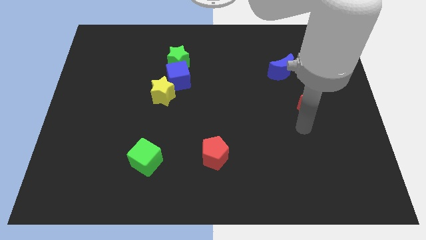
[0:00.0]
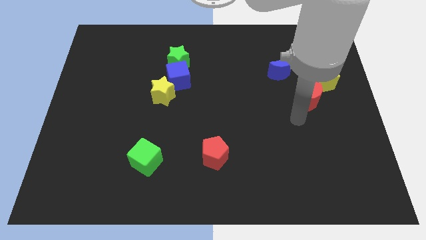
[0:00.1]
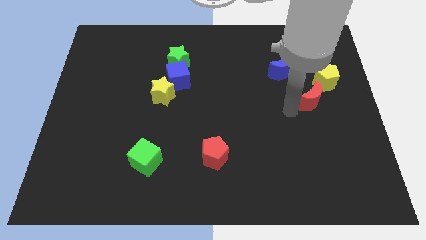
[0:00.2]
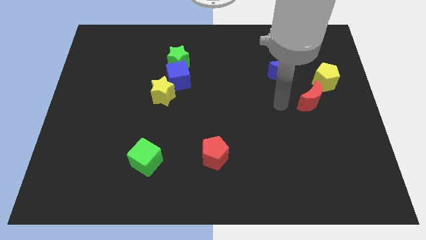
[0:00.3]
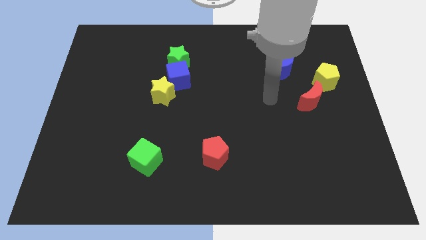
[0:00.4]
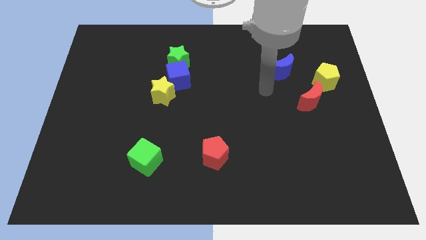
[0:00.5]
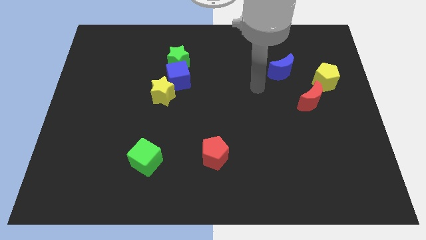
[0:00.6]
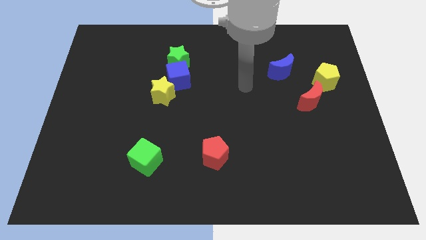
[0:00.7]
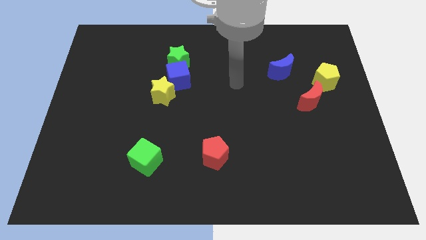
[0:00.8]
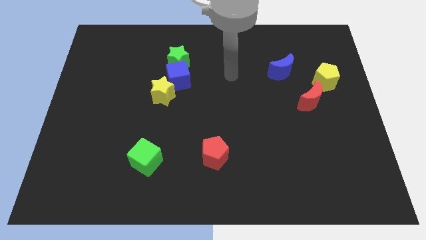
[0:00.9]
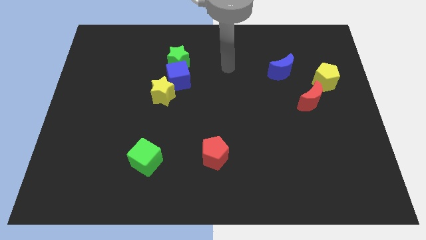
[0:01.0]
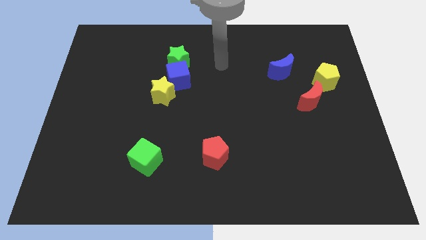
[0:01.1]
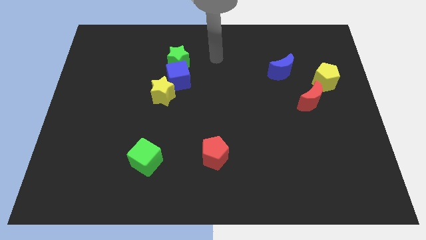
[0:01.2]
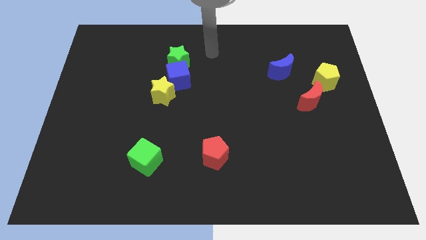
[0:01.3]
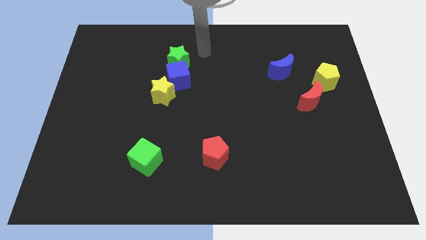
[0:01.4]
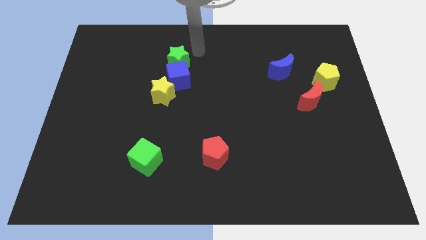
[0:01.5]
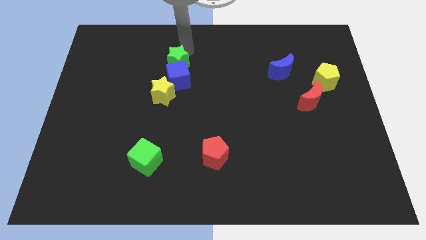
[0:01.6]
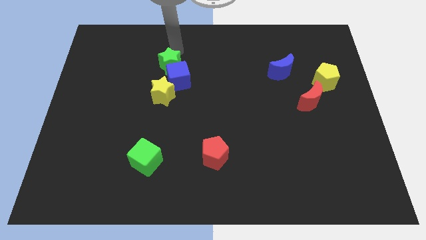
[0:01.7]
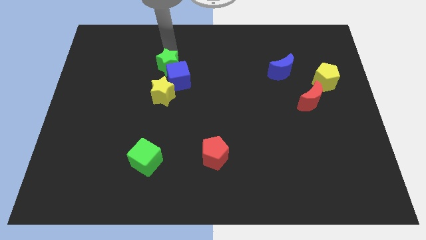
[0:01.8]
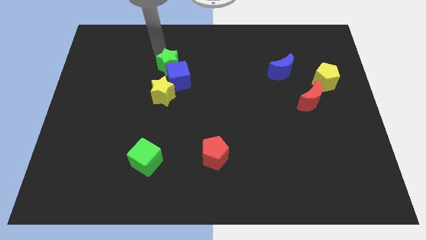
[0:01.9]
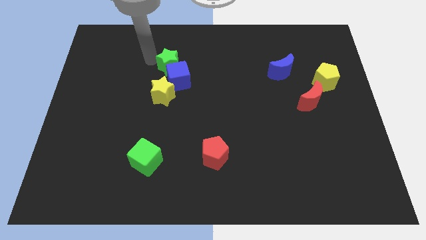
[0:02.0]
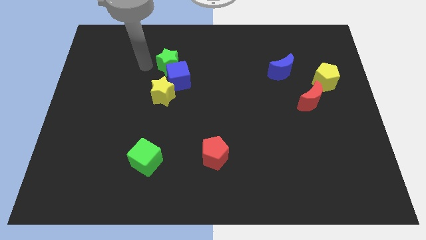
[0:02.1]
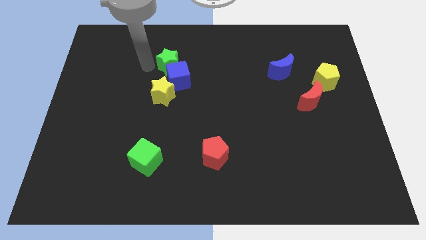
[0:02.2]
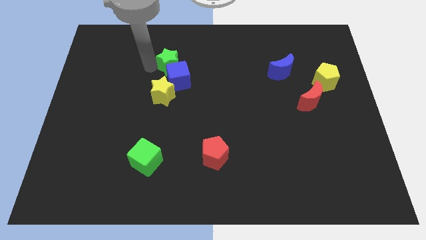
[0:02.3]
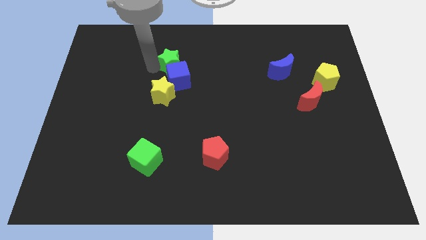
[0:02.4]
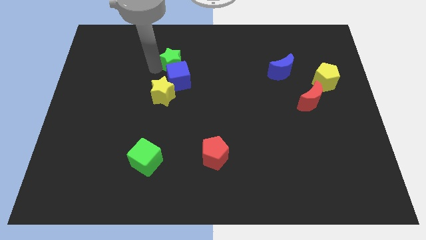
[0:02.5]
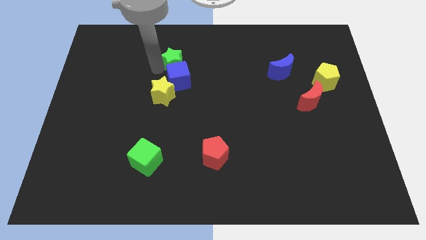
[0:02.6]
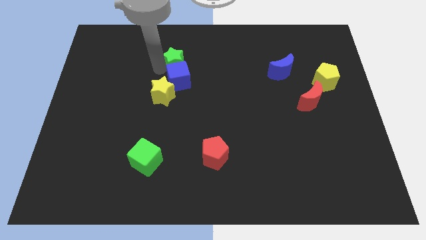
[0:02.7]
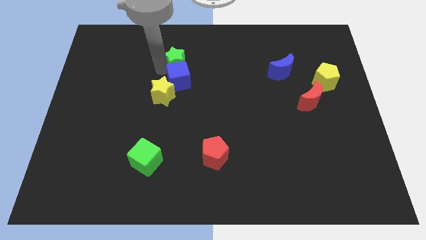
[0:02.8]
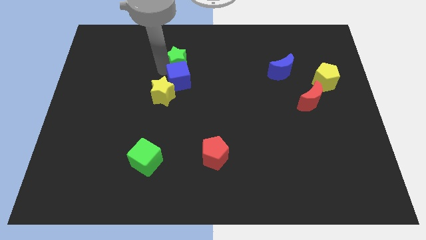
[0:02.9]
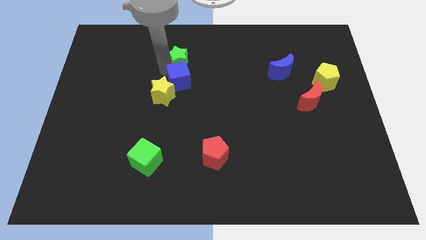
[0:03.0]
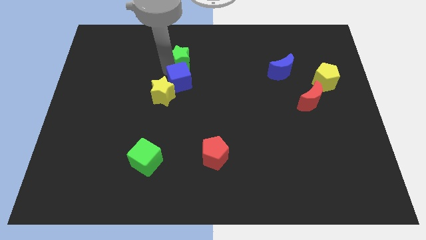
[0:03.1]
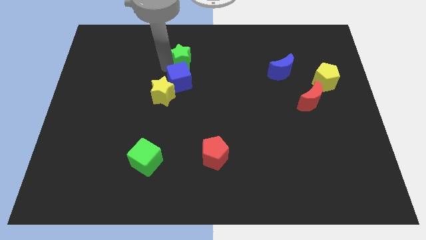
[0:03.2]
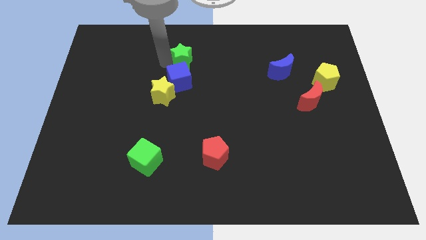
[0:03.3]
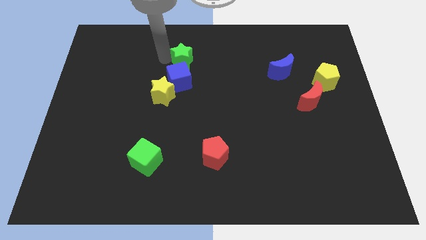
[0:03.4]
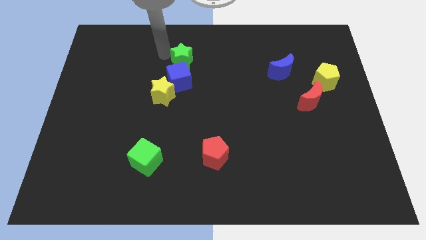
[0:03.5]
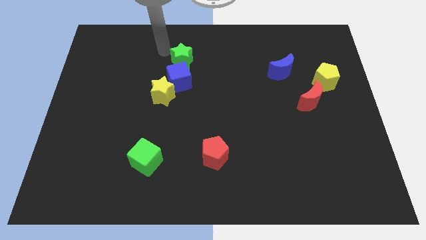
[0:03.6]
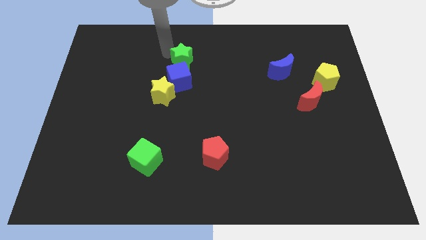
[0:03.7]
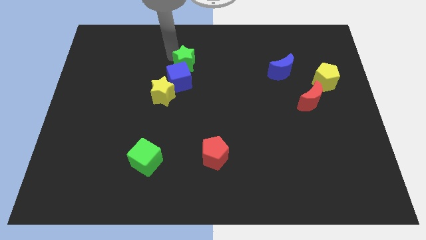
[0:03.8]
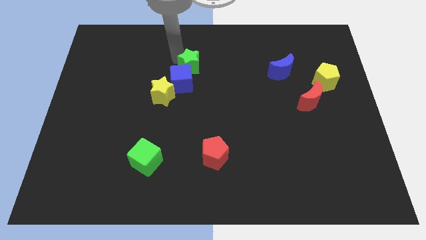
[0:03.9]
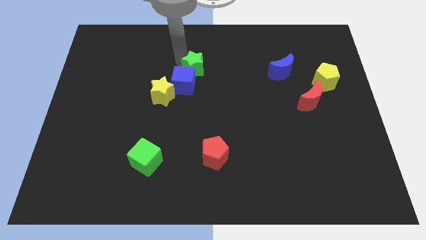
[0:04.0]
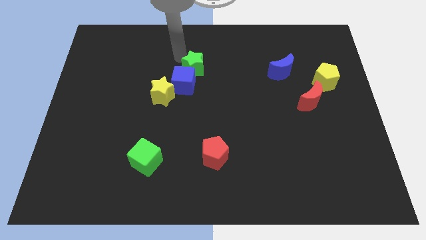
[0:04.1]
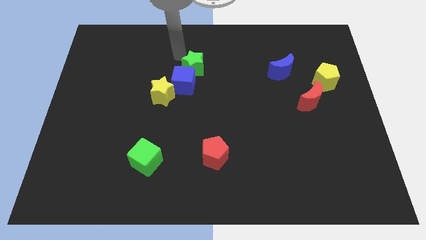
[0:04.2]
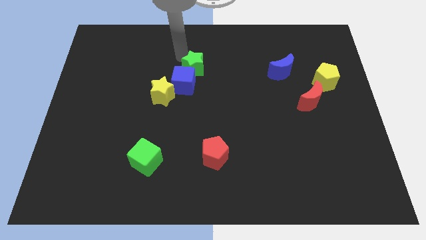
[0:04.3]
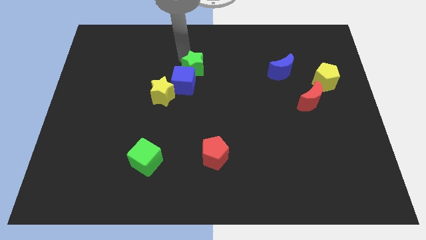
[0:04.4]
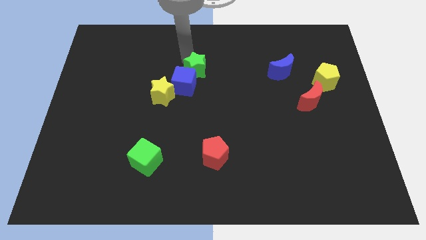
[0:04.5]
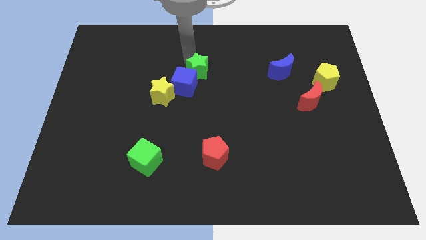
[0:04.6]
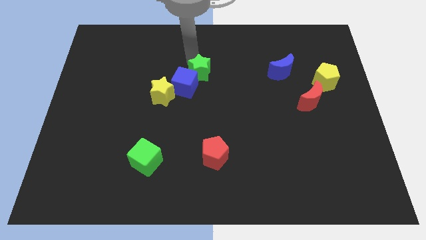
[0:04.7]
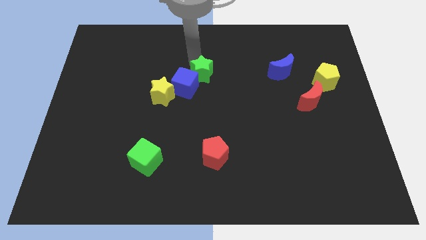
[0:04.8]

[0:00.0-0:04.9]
slightly move the green star diagonally down and to the right

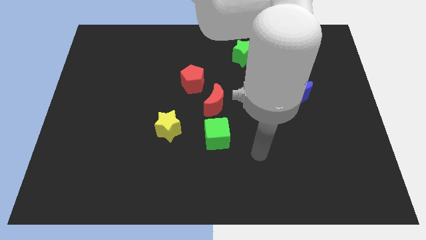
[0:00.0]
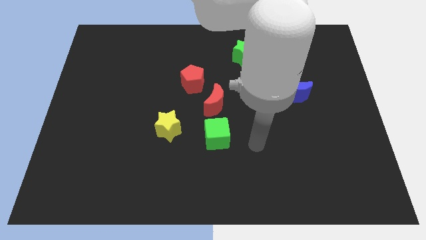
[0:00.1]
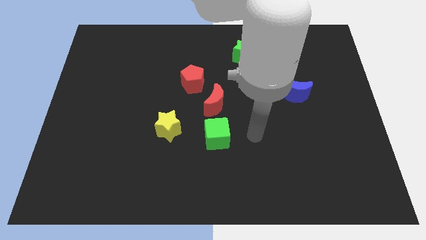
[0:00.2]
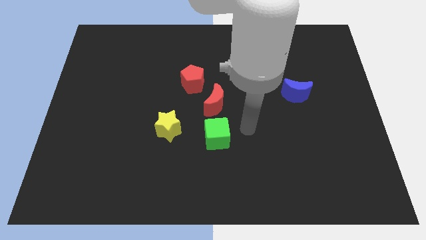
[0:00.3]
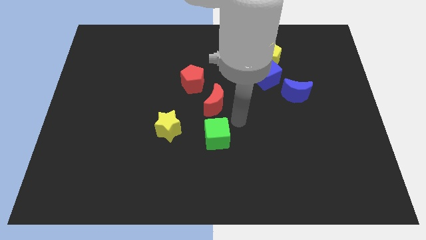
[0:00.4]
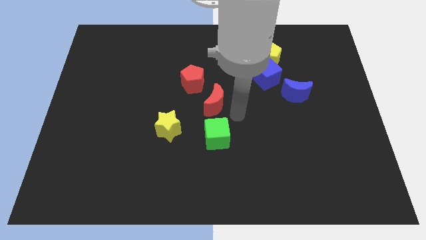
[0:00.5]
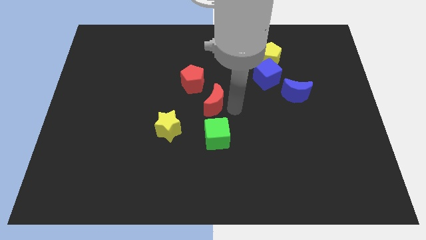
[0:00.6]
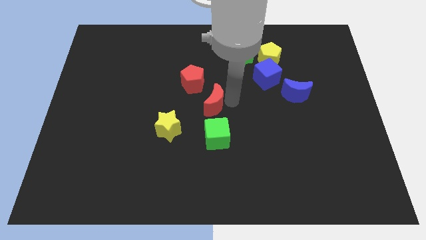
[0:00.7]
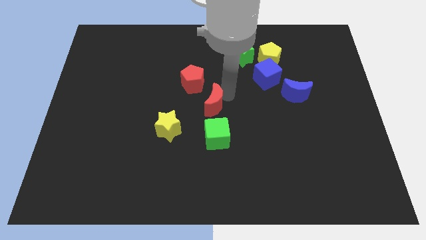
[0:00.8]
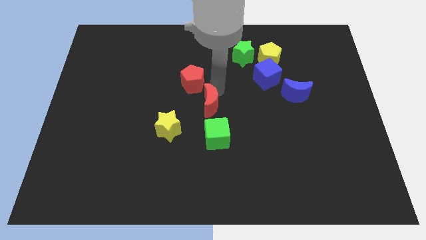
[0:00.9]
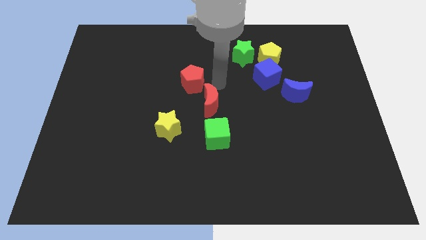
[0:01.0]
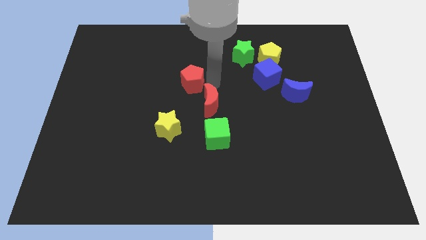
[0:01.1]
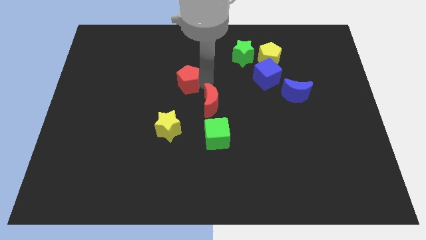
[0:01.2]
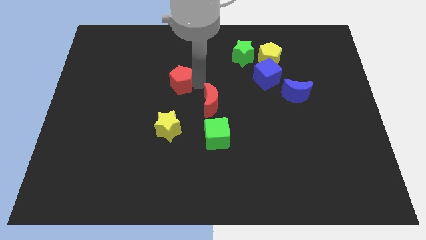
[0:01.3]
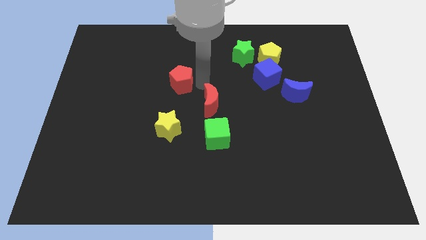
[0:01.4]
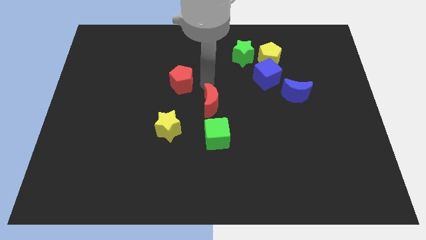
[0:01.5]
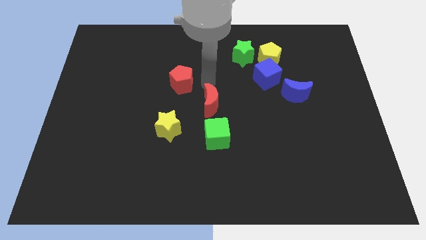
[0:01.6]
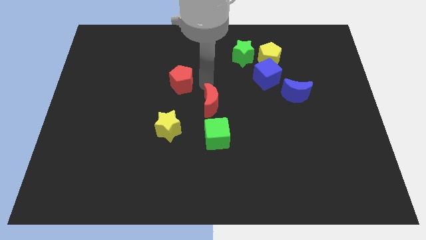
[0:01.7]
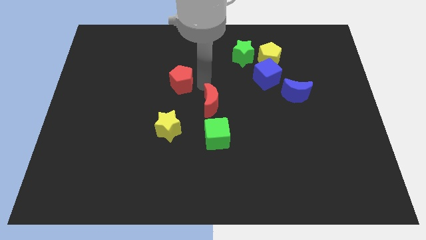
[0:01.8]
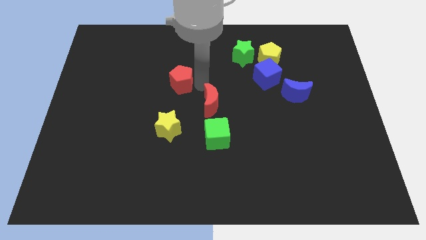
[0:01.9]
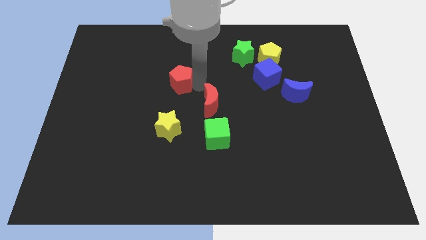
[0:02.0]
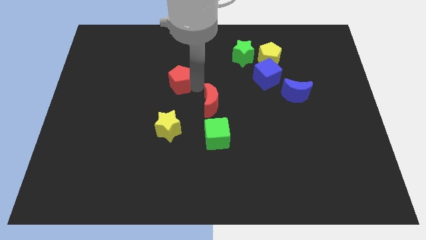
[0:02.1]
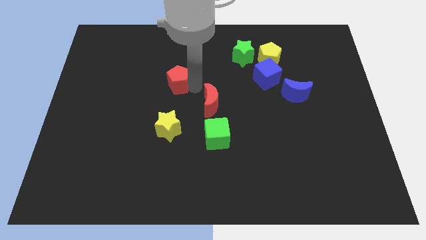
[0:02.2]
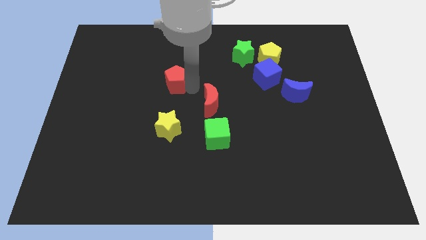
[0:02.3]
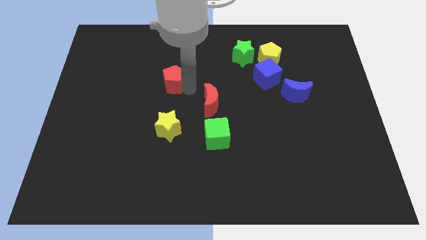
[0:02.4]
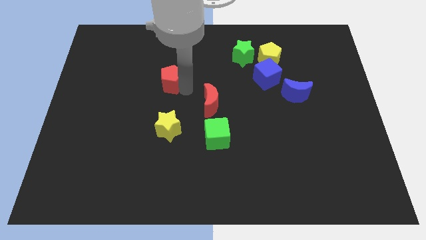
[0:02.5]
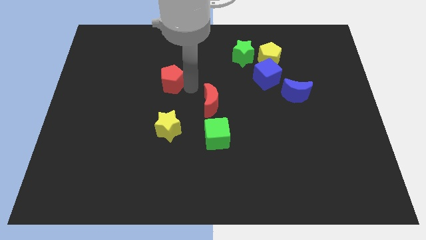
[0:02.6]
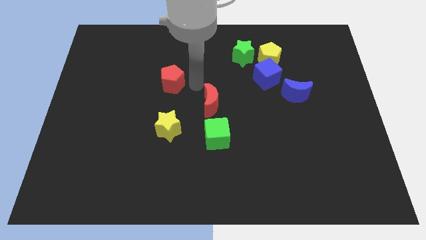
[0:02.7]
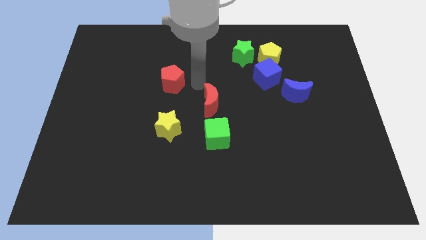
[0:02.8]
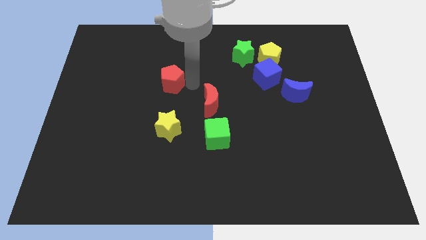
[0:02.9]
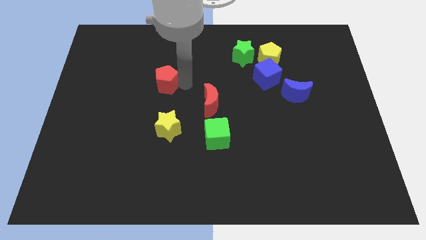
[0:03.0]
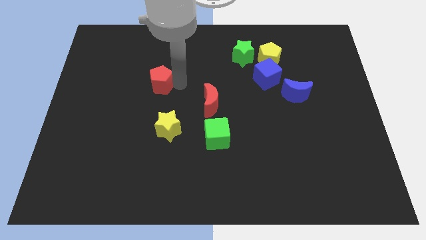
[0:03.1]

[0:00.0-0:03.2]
move the red pentagon to the left a little bit
